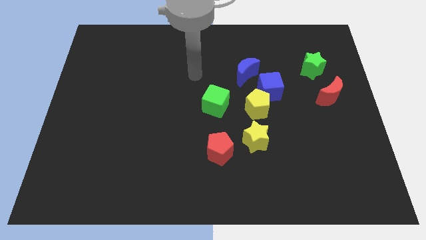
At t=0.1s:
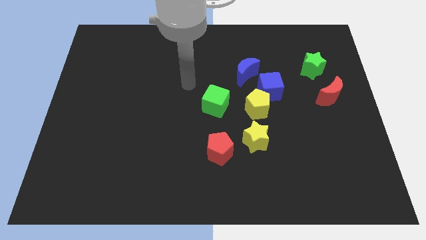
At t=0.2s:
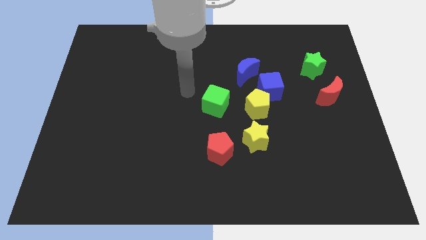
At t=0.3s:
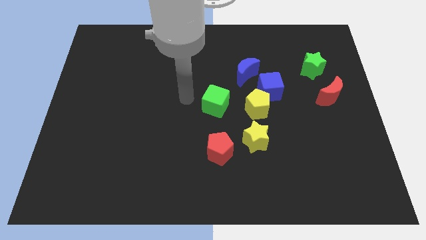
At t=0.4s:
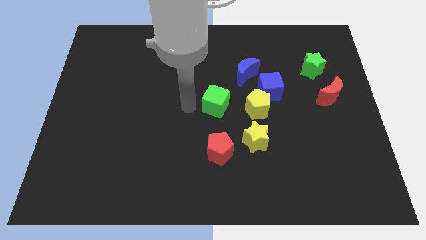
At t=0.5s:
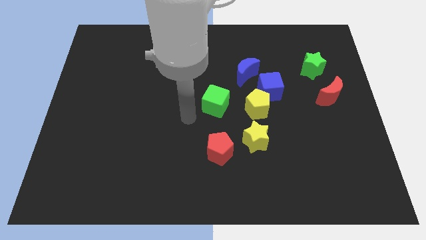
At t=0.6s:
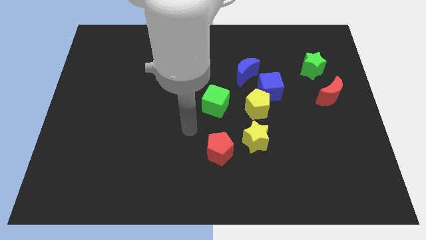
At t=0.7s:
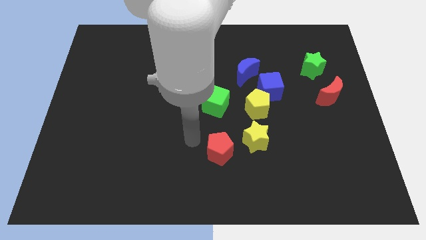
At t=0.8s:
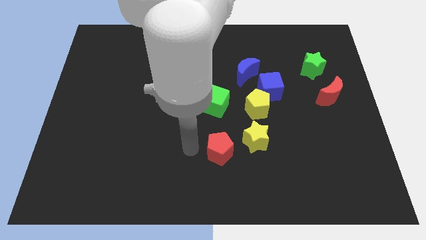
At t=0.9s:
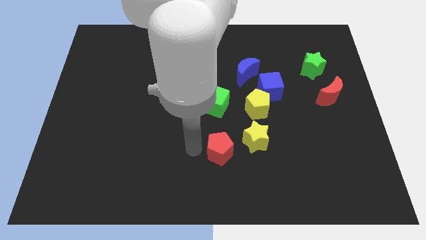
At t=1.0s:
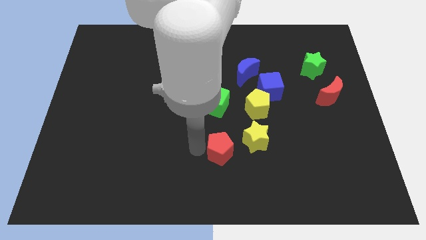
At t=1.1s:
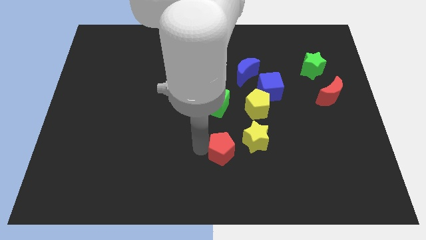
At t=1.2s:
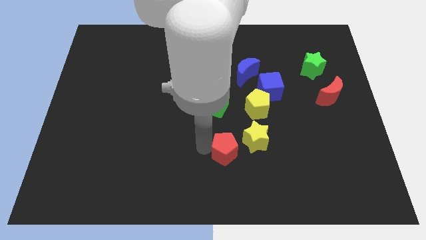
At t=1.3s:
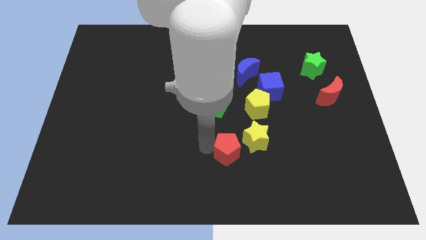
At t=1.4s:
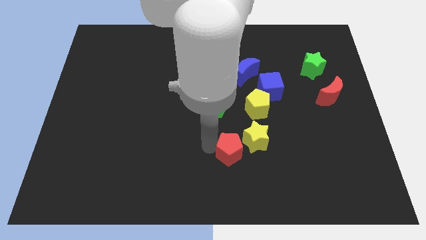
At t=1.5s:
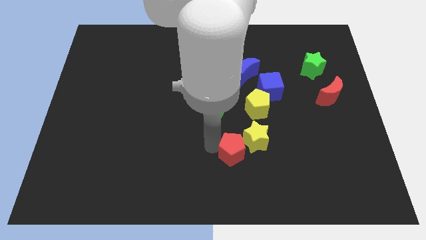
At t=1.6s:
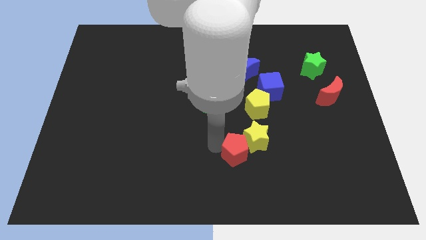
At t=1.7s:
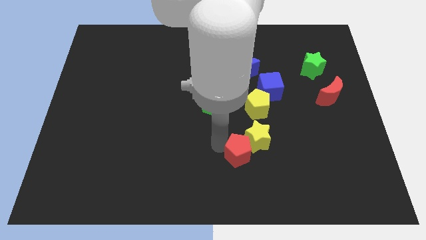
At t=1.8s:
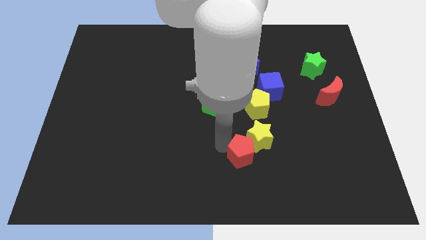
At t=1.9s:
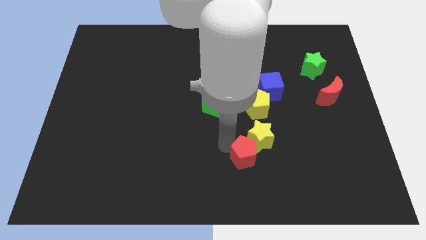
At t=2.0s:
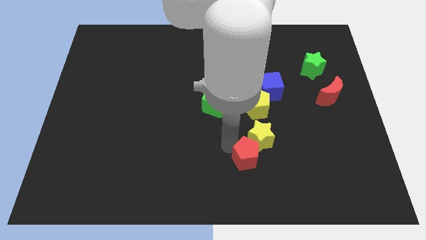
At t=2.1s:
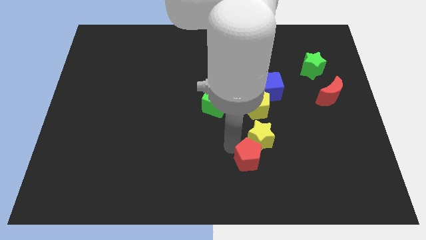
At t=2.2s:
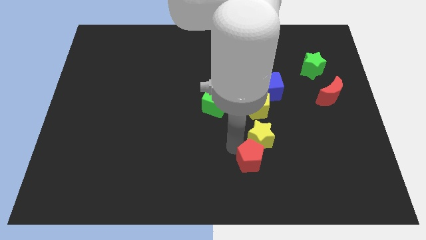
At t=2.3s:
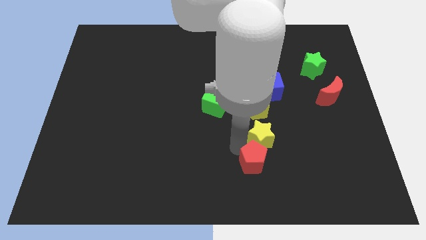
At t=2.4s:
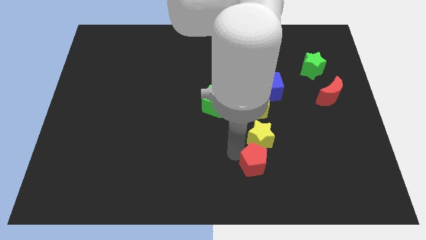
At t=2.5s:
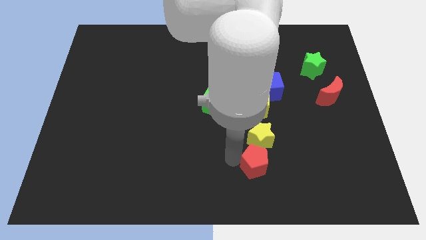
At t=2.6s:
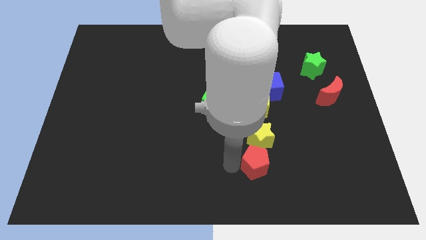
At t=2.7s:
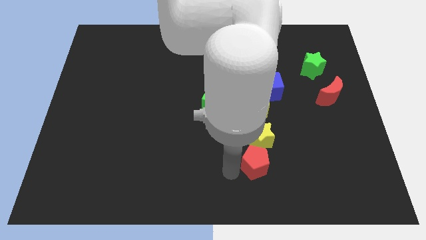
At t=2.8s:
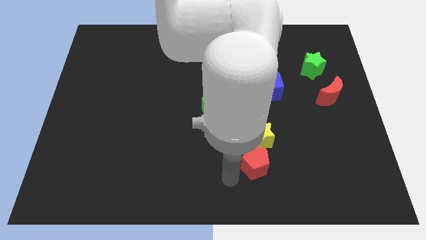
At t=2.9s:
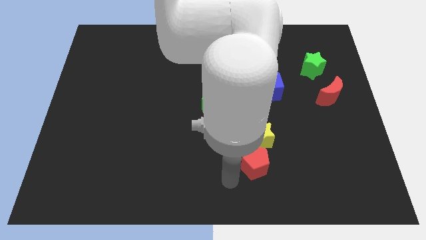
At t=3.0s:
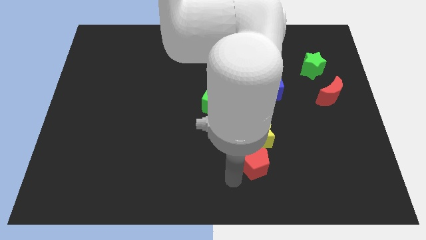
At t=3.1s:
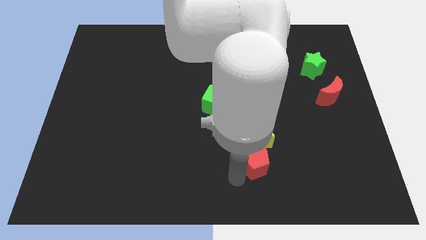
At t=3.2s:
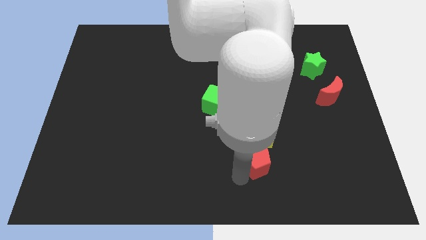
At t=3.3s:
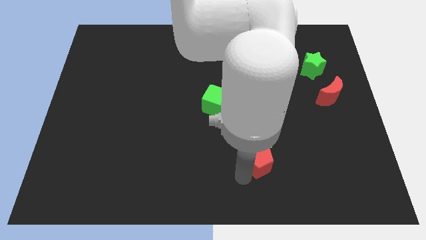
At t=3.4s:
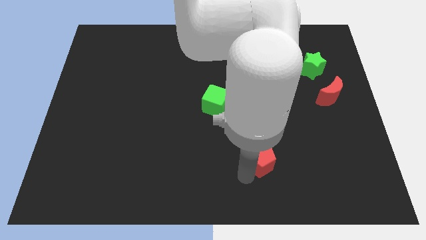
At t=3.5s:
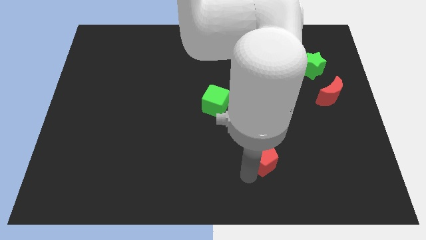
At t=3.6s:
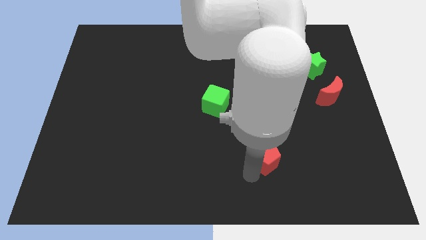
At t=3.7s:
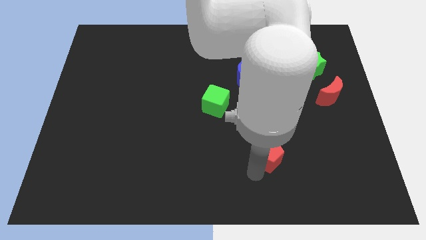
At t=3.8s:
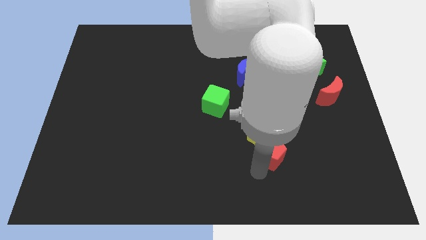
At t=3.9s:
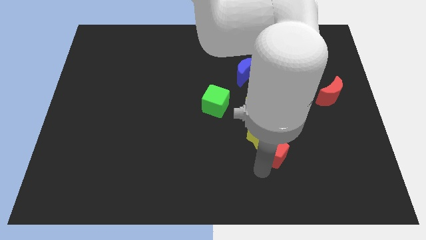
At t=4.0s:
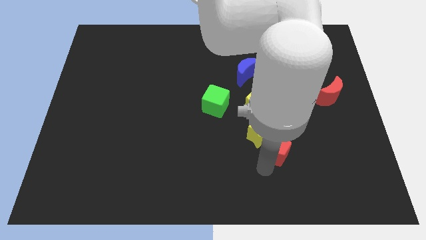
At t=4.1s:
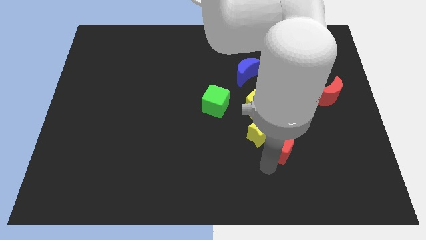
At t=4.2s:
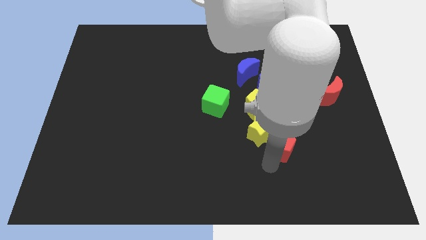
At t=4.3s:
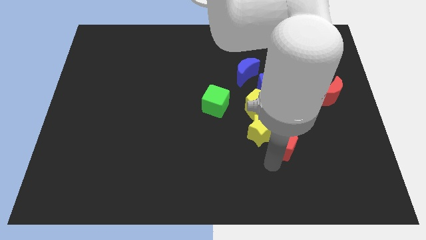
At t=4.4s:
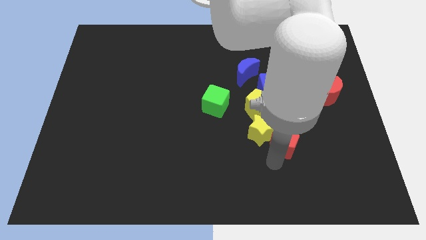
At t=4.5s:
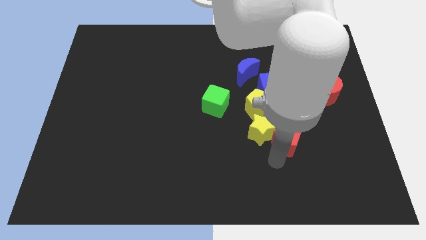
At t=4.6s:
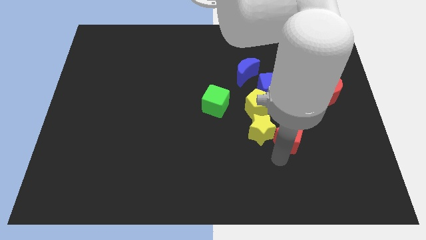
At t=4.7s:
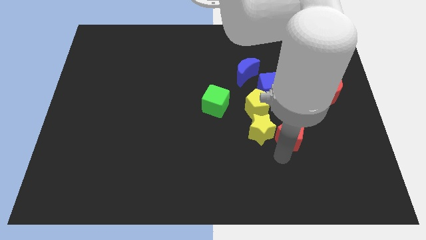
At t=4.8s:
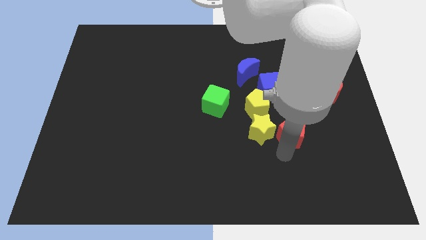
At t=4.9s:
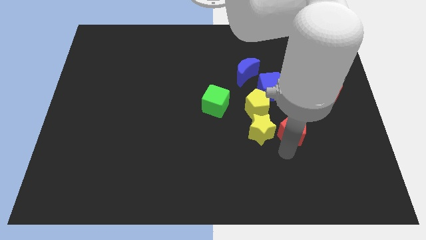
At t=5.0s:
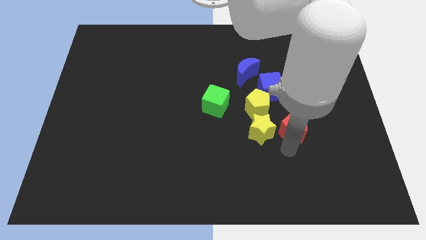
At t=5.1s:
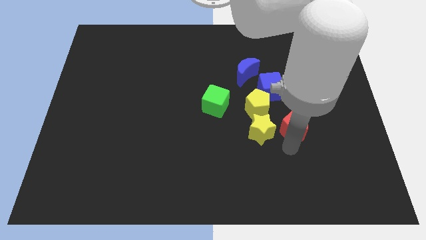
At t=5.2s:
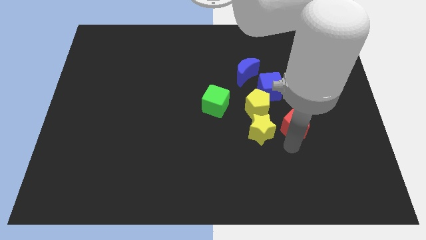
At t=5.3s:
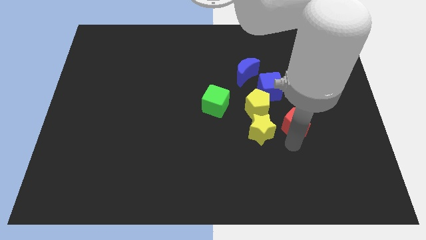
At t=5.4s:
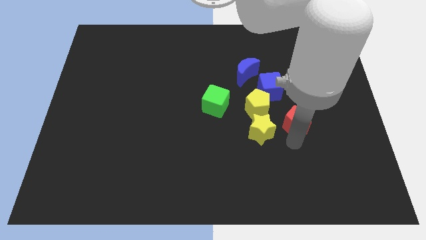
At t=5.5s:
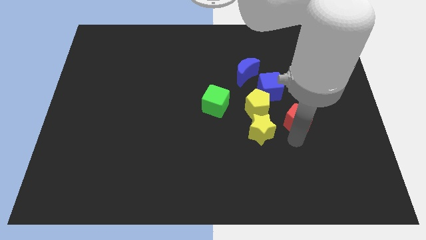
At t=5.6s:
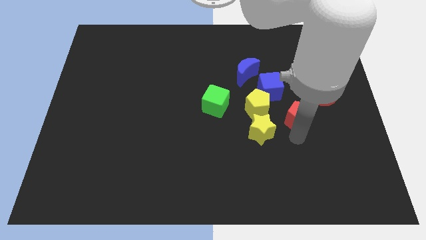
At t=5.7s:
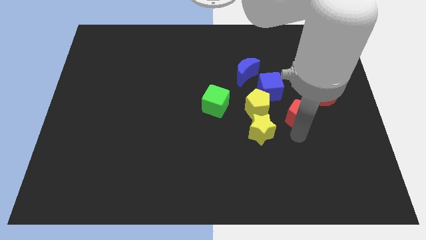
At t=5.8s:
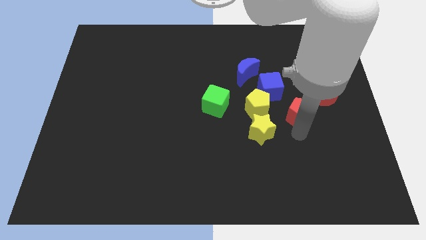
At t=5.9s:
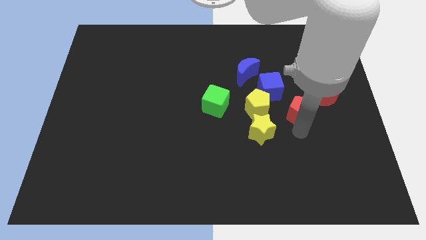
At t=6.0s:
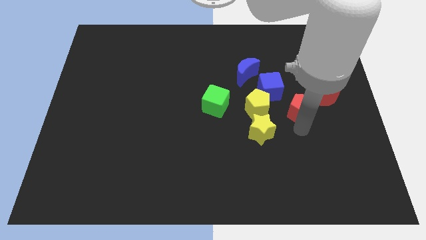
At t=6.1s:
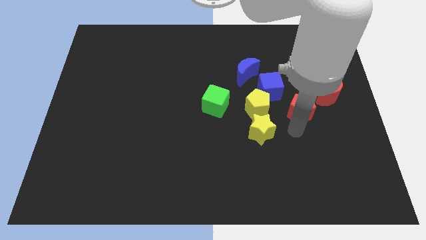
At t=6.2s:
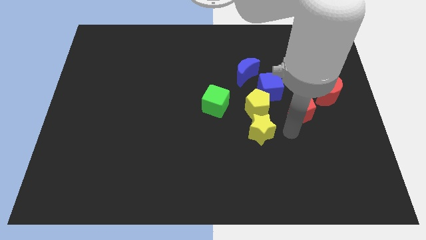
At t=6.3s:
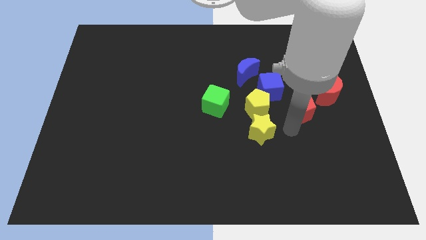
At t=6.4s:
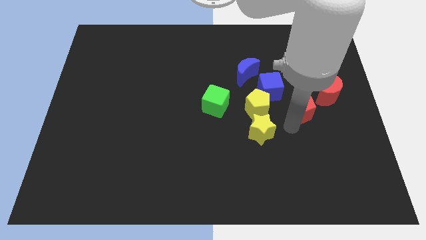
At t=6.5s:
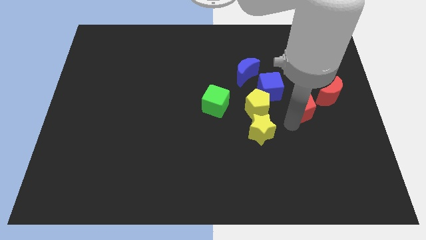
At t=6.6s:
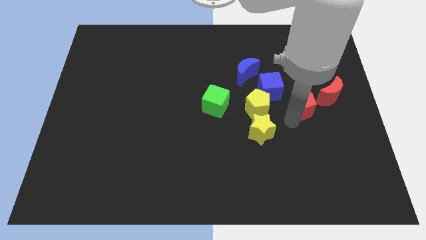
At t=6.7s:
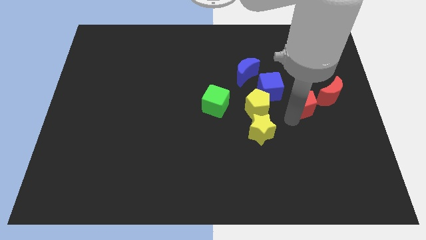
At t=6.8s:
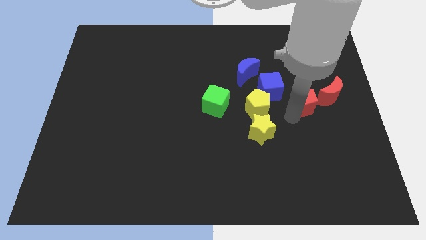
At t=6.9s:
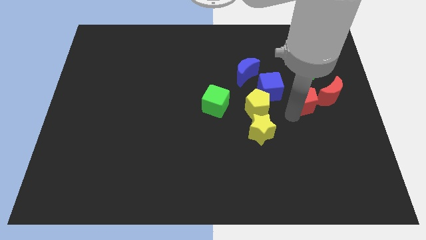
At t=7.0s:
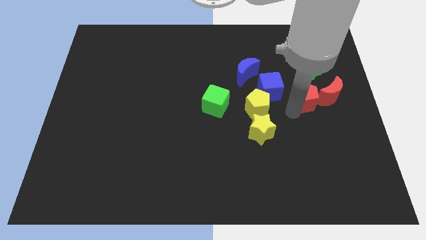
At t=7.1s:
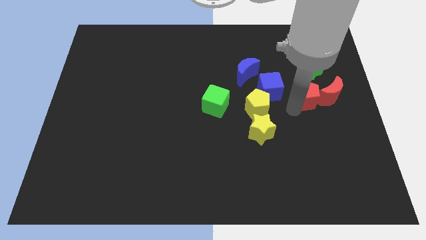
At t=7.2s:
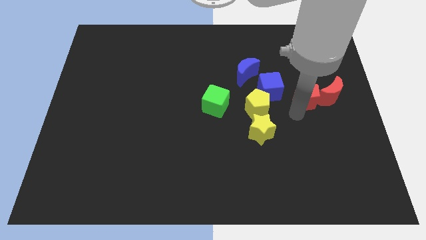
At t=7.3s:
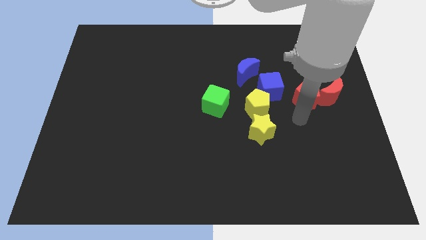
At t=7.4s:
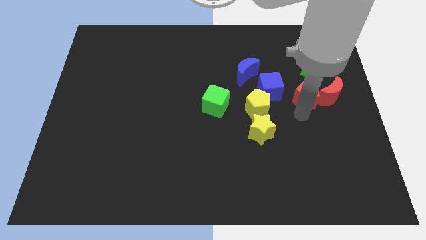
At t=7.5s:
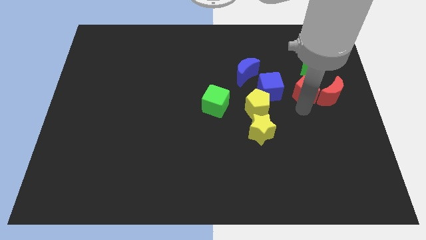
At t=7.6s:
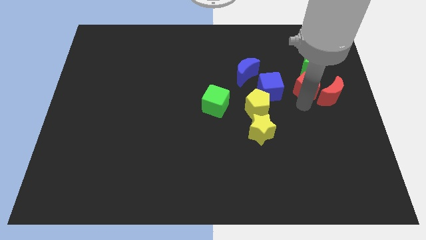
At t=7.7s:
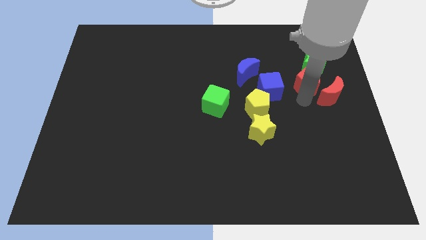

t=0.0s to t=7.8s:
move the red pentagon to the green star
